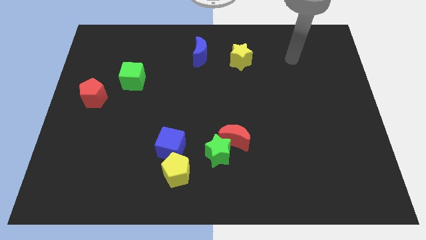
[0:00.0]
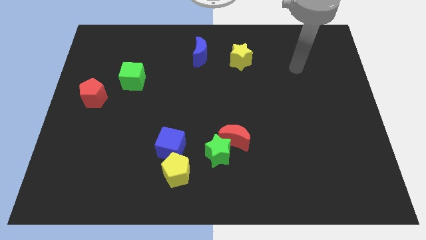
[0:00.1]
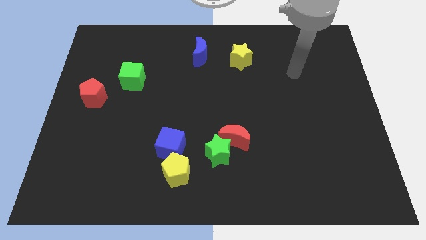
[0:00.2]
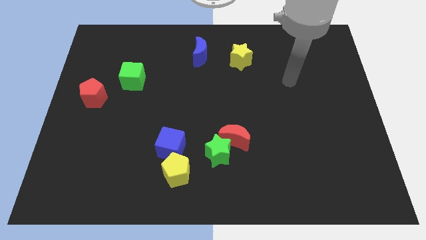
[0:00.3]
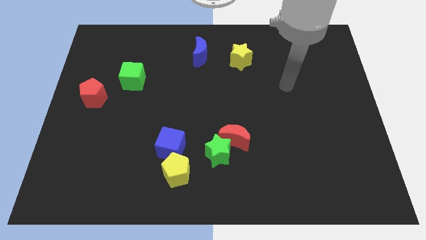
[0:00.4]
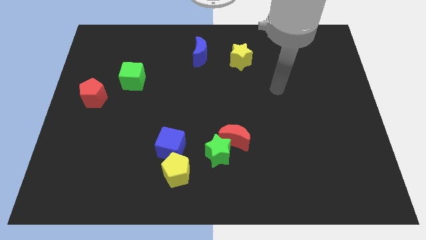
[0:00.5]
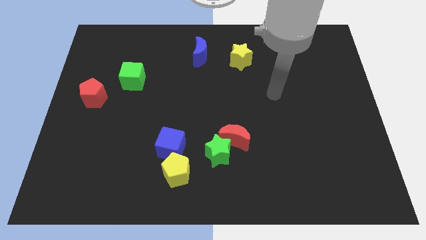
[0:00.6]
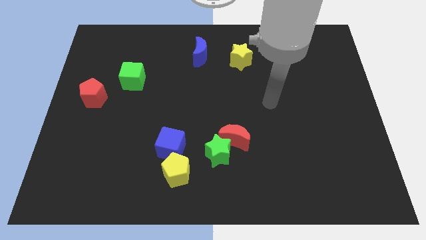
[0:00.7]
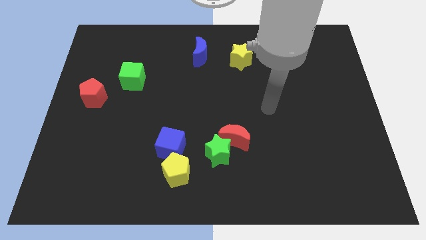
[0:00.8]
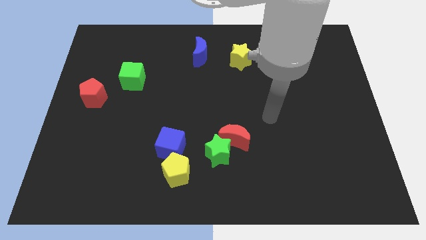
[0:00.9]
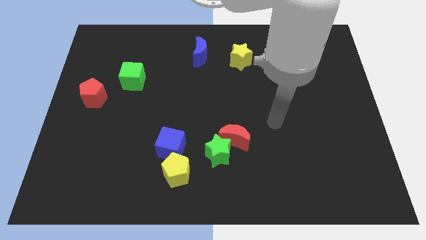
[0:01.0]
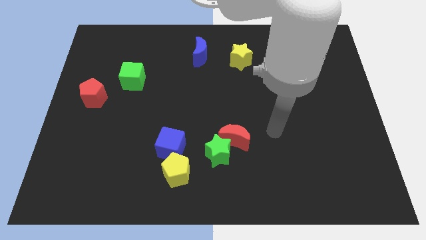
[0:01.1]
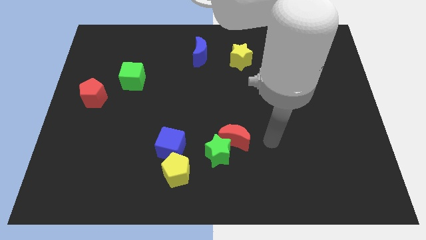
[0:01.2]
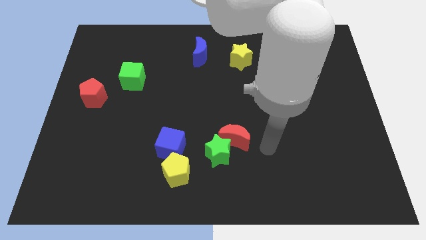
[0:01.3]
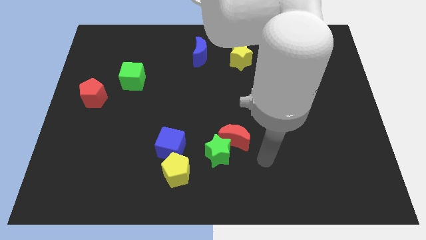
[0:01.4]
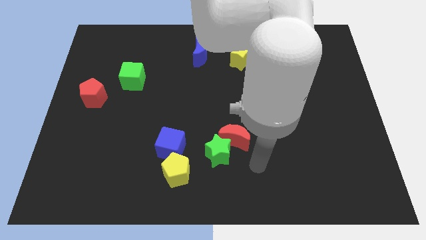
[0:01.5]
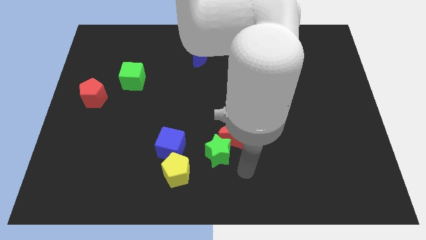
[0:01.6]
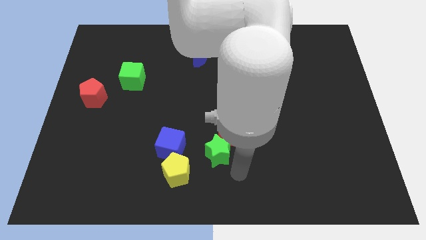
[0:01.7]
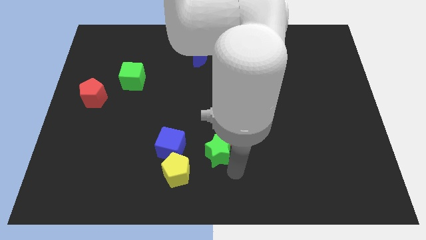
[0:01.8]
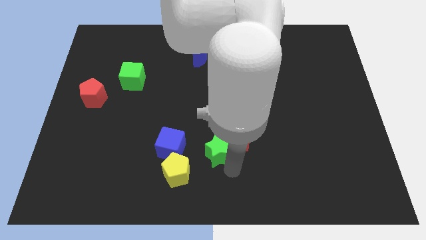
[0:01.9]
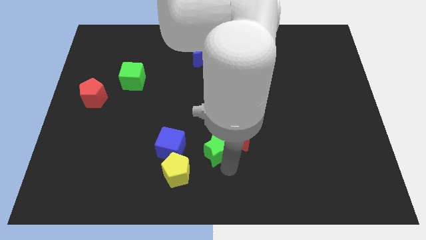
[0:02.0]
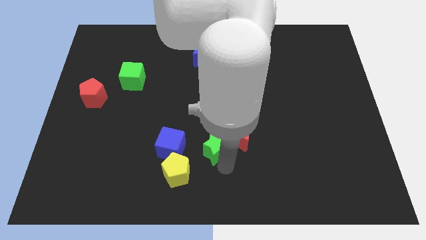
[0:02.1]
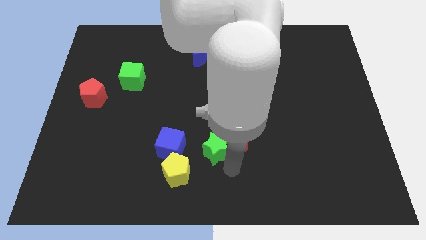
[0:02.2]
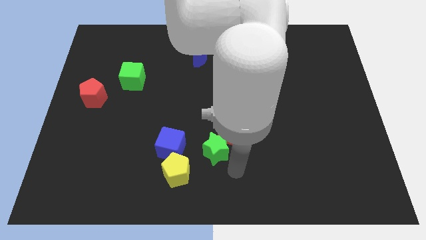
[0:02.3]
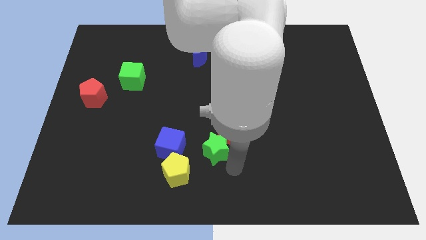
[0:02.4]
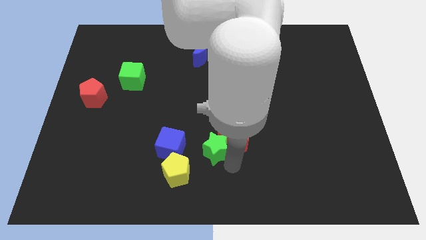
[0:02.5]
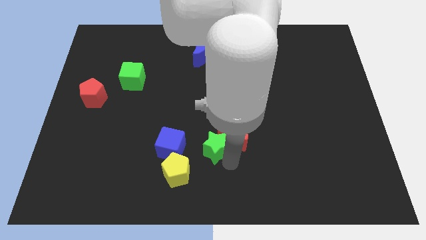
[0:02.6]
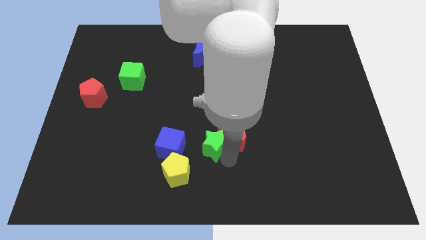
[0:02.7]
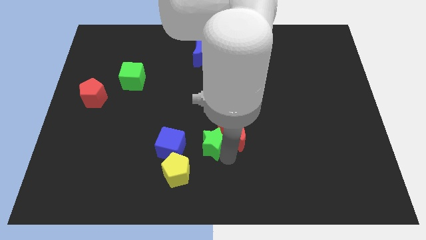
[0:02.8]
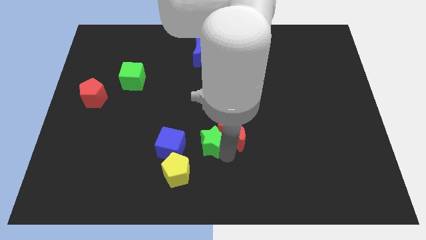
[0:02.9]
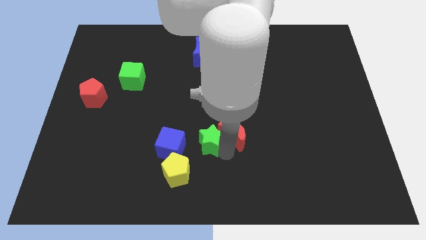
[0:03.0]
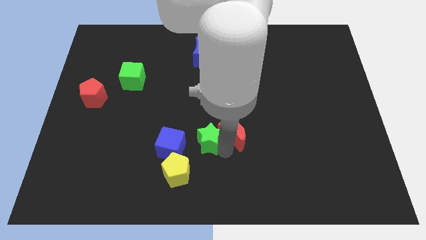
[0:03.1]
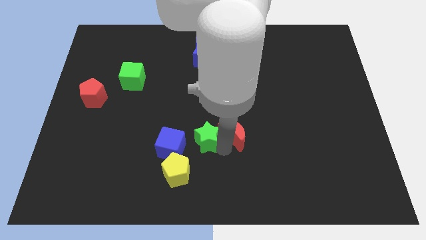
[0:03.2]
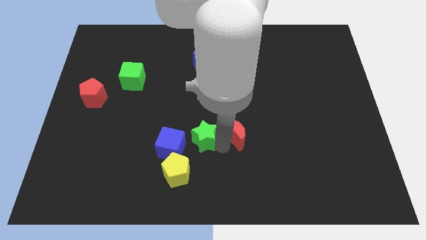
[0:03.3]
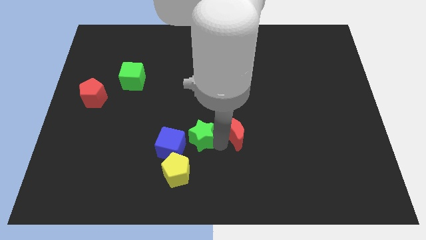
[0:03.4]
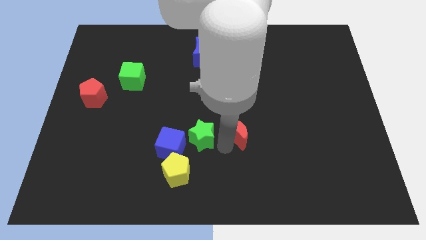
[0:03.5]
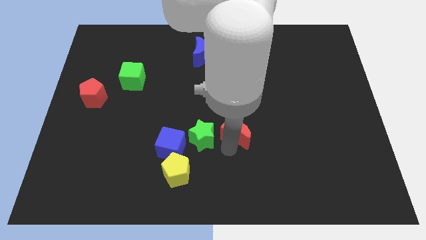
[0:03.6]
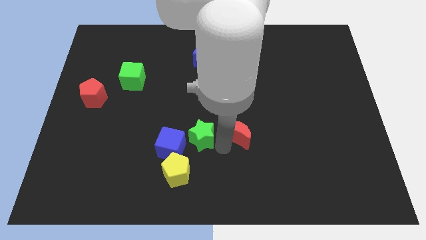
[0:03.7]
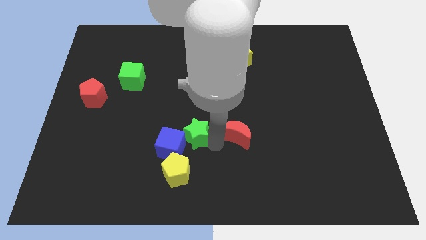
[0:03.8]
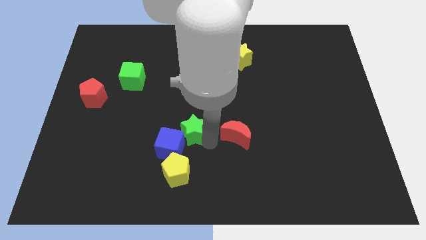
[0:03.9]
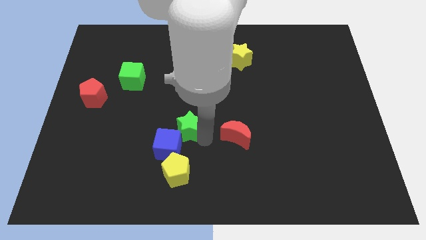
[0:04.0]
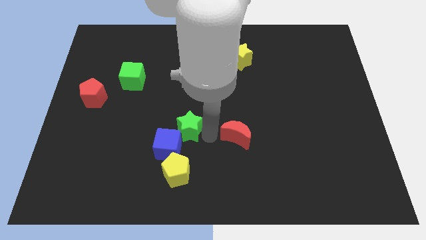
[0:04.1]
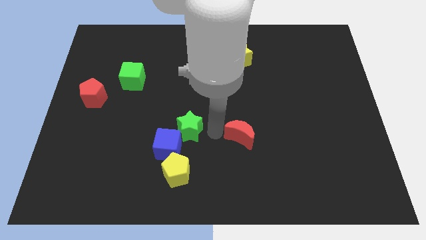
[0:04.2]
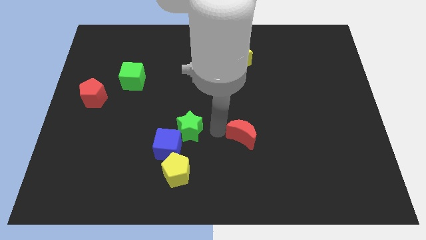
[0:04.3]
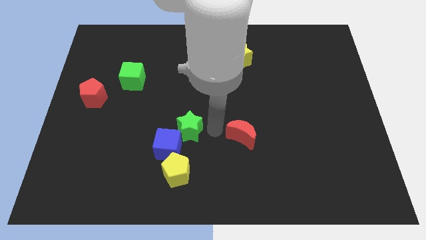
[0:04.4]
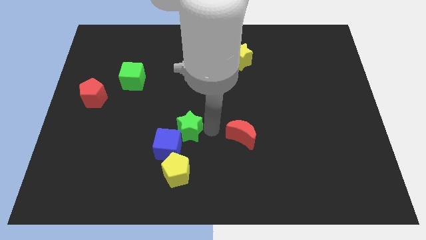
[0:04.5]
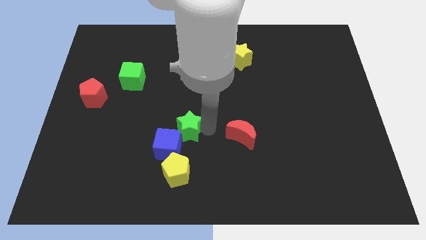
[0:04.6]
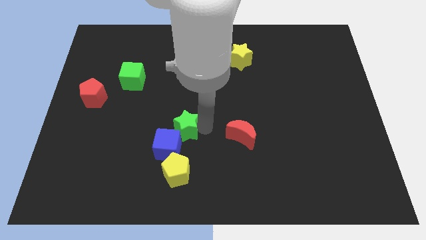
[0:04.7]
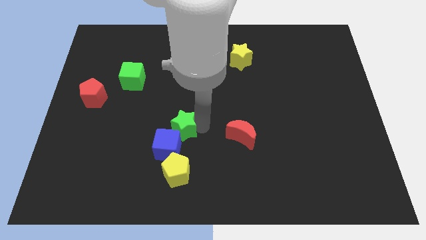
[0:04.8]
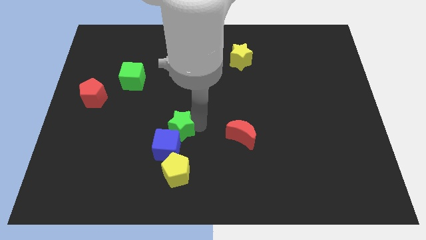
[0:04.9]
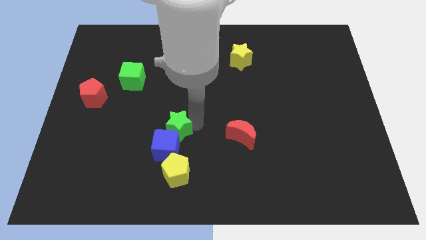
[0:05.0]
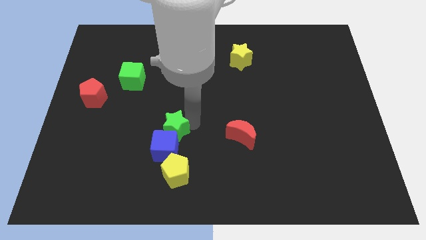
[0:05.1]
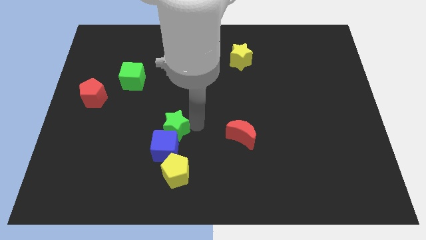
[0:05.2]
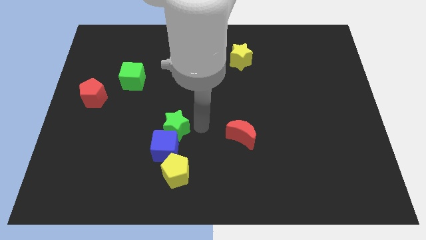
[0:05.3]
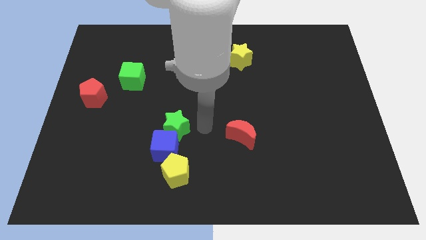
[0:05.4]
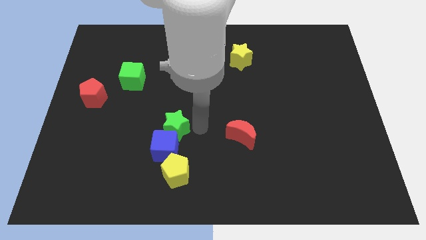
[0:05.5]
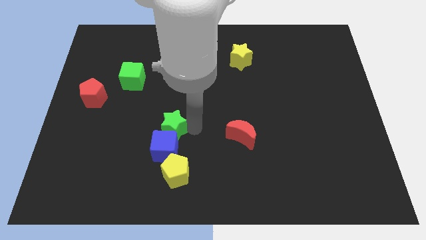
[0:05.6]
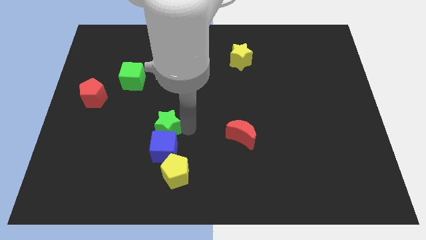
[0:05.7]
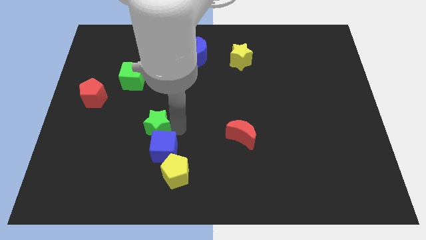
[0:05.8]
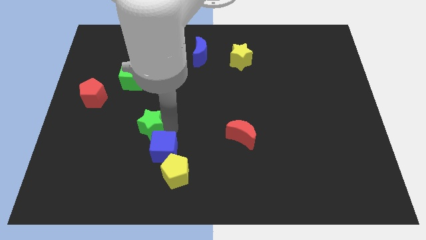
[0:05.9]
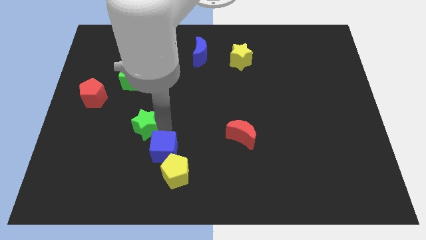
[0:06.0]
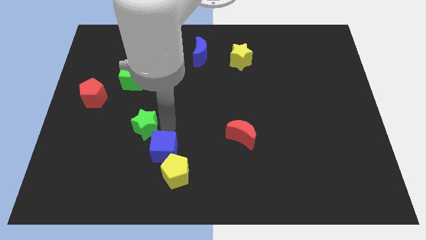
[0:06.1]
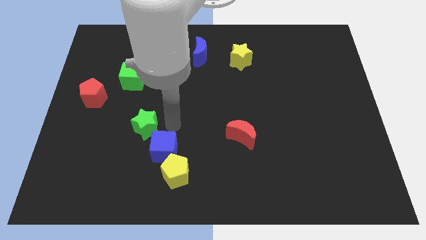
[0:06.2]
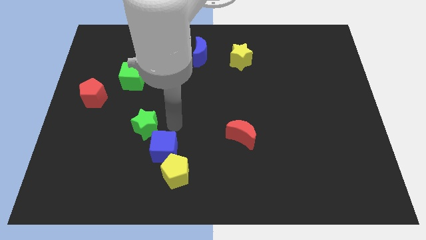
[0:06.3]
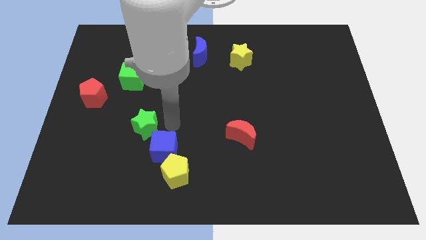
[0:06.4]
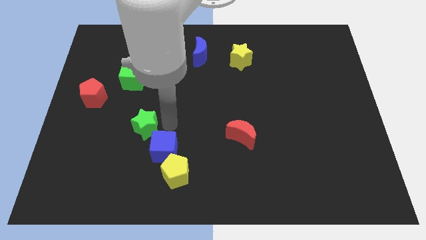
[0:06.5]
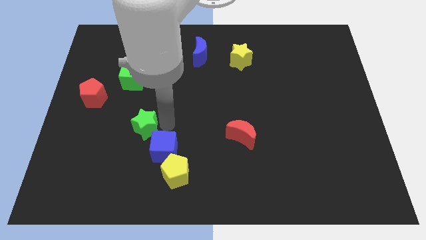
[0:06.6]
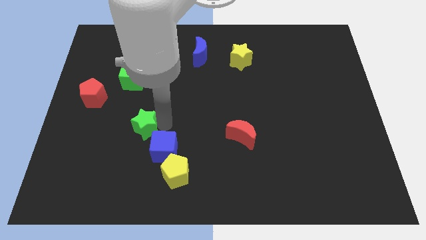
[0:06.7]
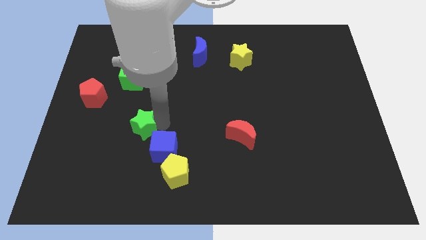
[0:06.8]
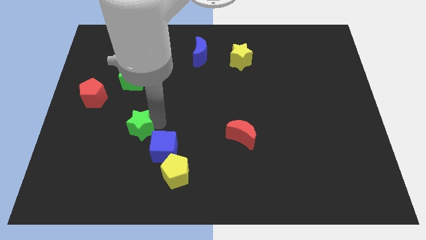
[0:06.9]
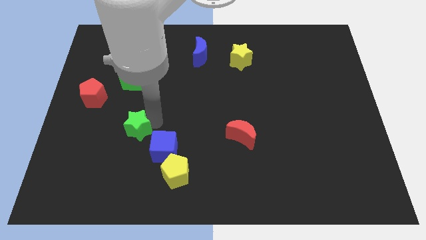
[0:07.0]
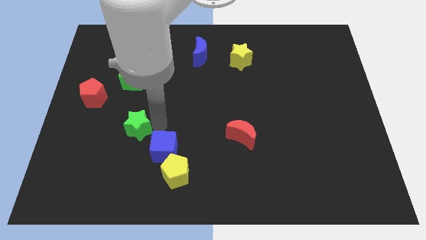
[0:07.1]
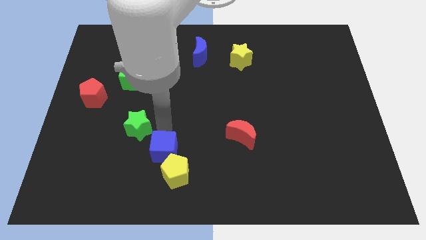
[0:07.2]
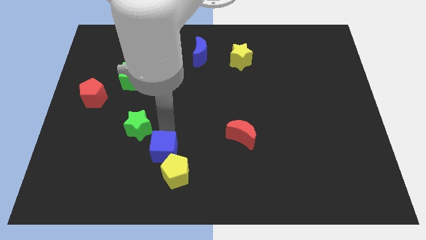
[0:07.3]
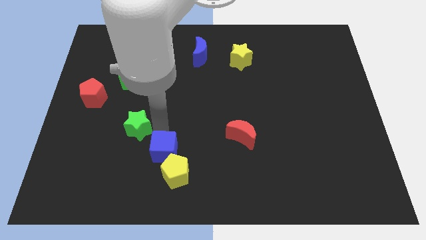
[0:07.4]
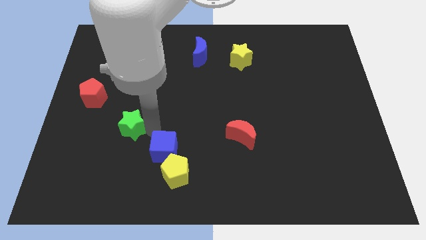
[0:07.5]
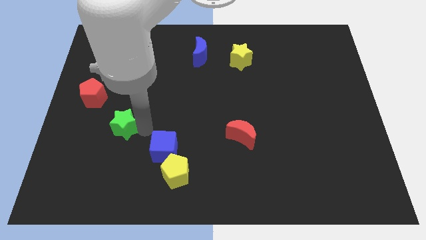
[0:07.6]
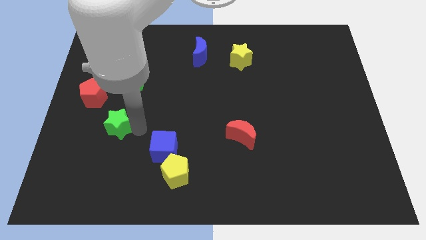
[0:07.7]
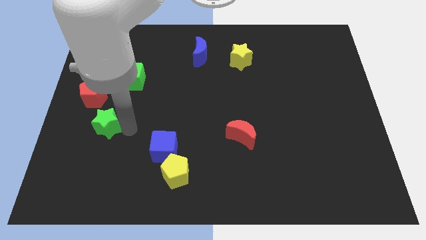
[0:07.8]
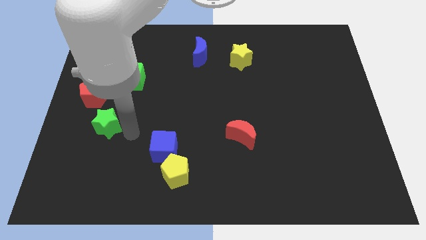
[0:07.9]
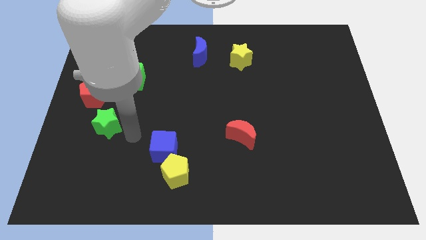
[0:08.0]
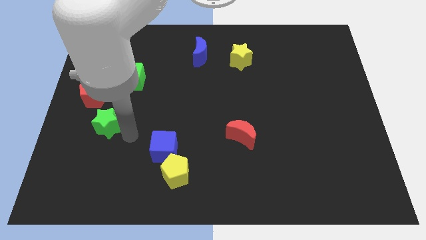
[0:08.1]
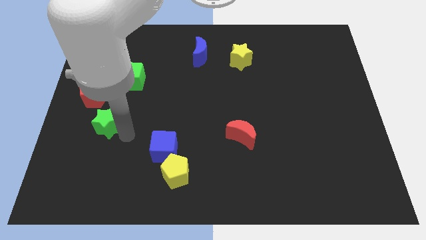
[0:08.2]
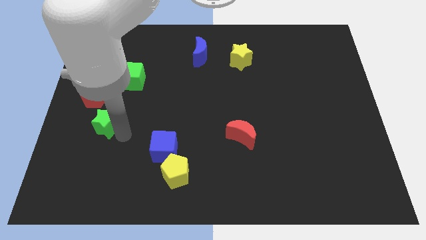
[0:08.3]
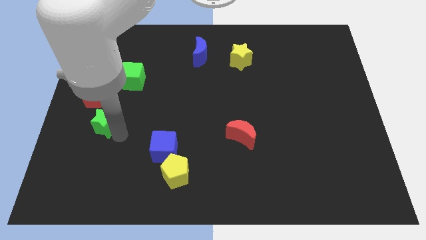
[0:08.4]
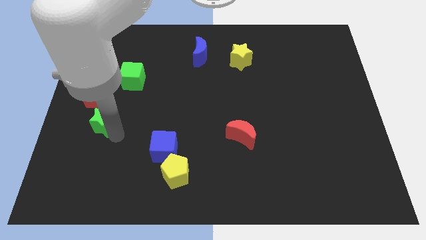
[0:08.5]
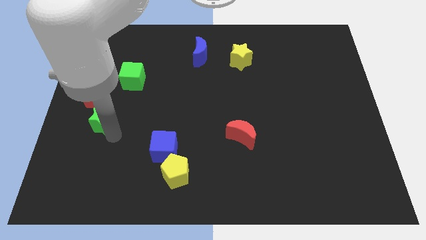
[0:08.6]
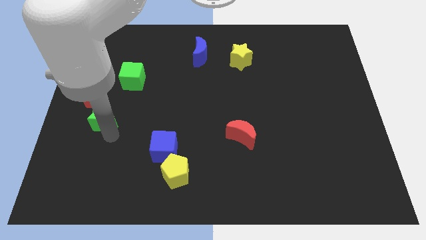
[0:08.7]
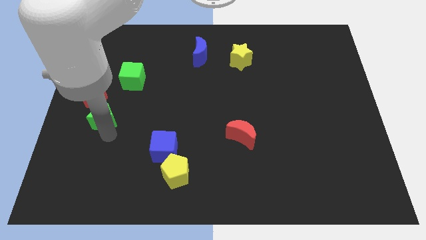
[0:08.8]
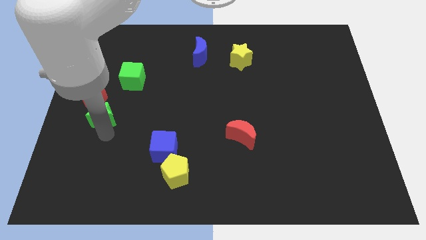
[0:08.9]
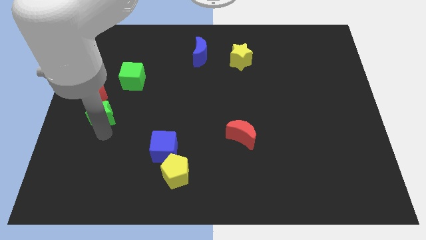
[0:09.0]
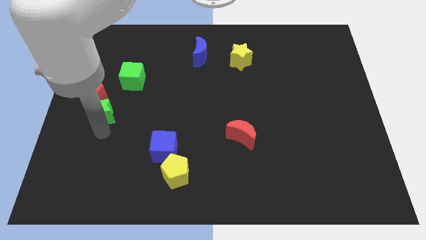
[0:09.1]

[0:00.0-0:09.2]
put the green star to the left side of the board
